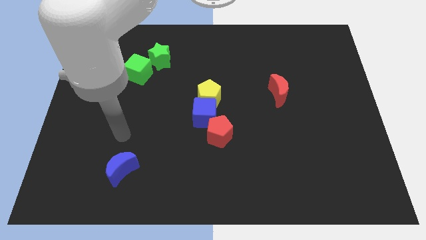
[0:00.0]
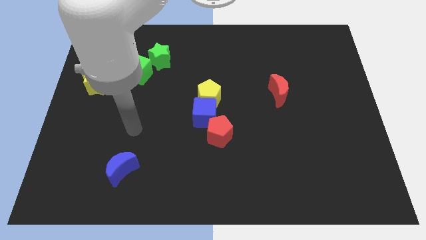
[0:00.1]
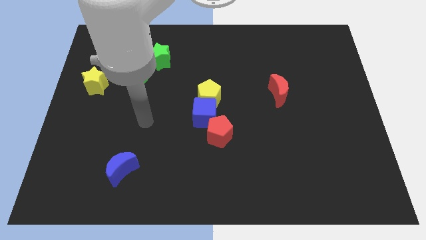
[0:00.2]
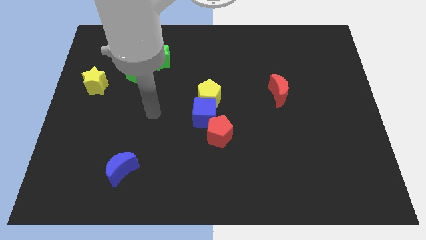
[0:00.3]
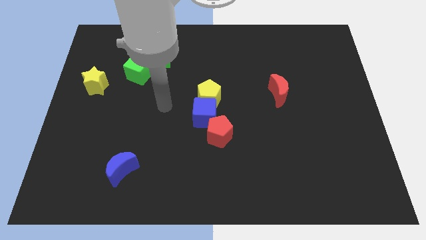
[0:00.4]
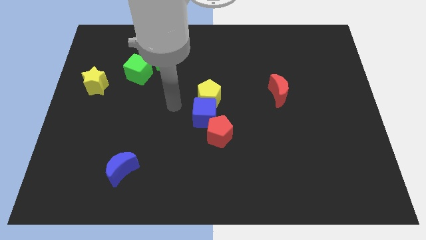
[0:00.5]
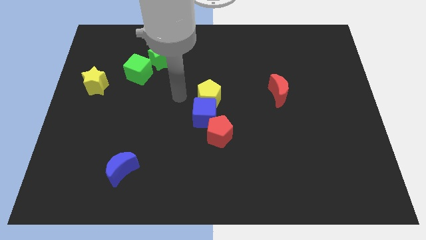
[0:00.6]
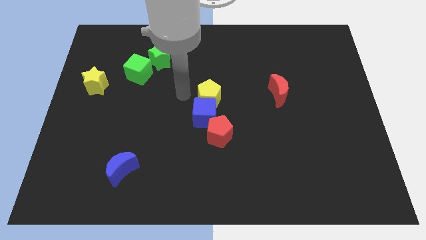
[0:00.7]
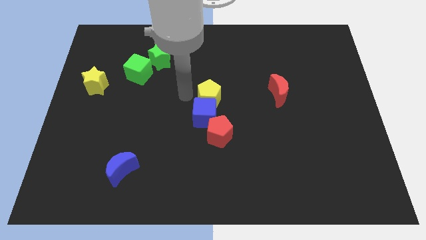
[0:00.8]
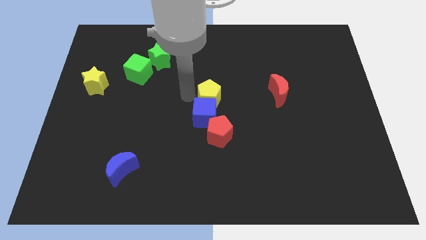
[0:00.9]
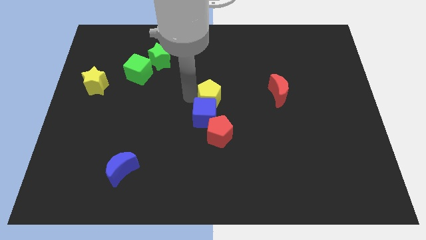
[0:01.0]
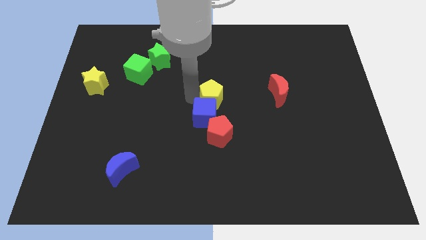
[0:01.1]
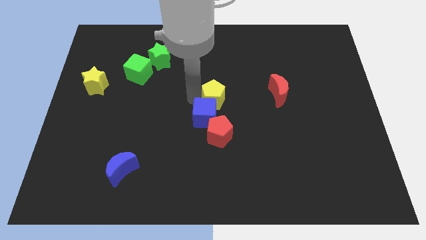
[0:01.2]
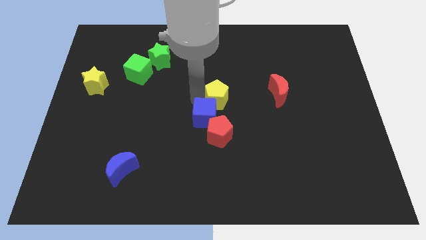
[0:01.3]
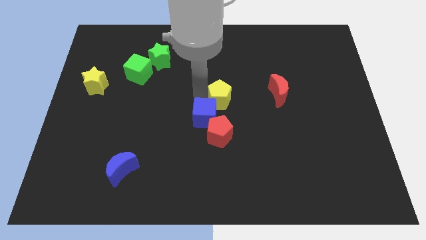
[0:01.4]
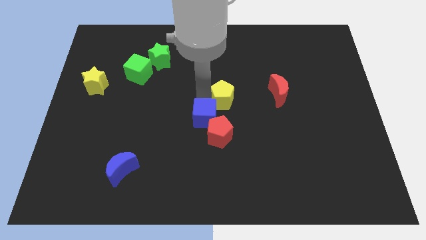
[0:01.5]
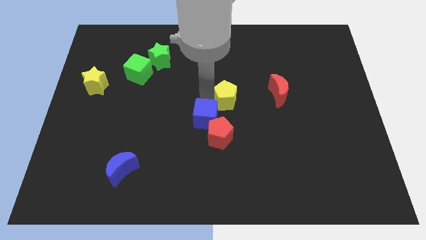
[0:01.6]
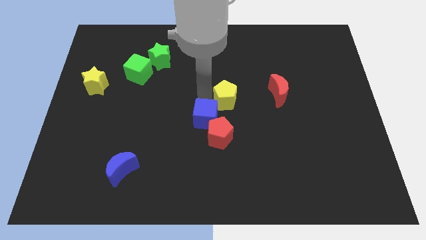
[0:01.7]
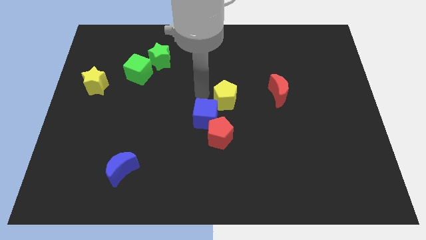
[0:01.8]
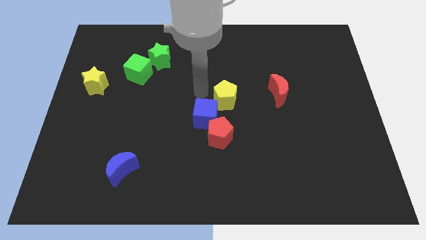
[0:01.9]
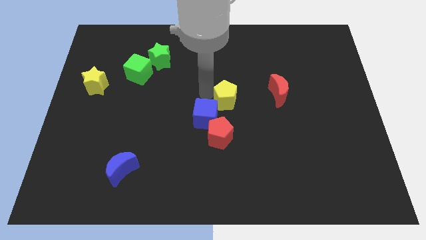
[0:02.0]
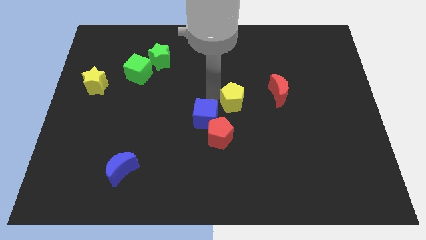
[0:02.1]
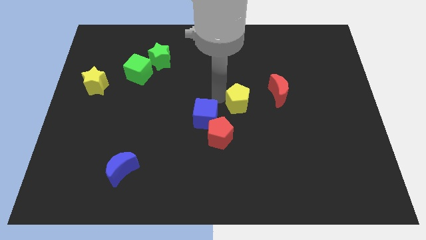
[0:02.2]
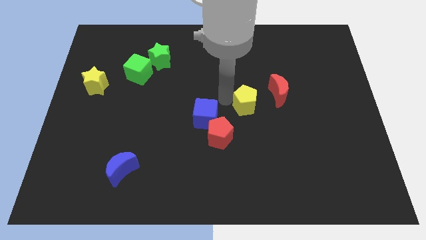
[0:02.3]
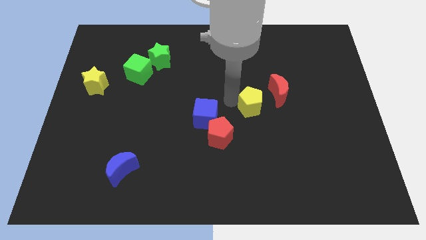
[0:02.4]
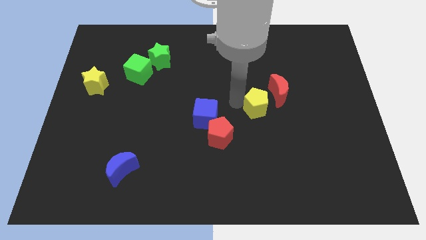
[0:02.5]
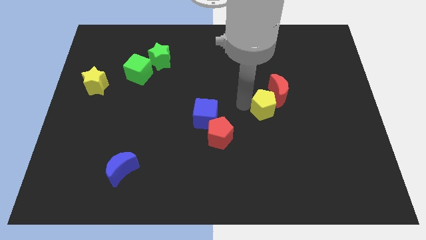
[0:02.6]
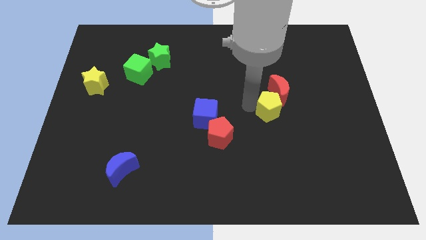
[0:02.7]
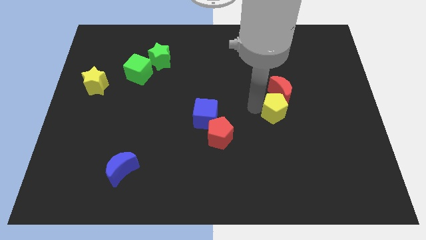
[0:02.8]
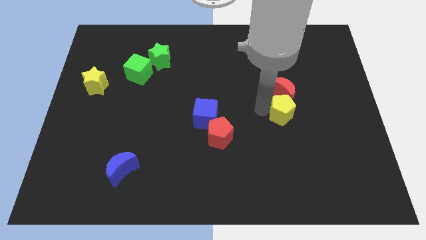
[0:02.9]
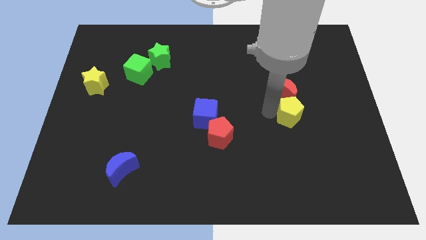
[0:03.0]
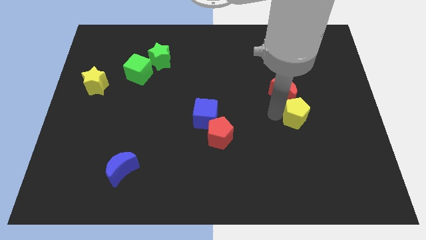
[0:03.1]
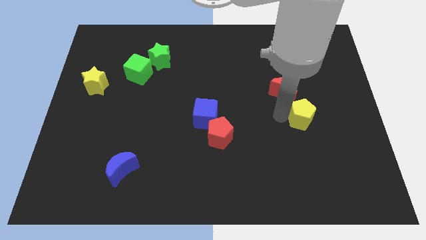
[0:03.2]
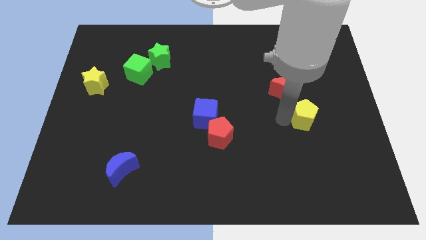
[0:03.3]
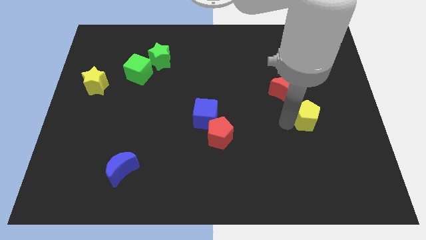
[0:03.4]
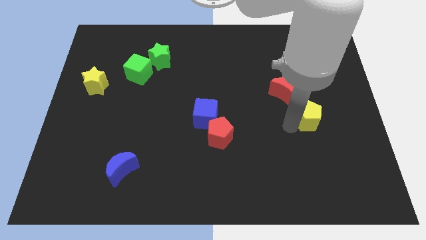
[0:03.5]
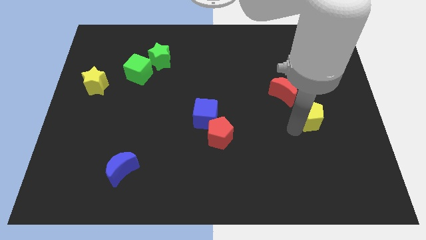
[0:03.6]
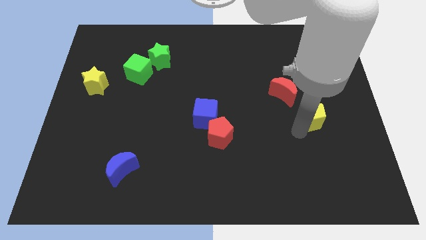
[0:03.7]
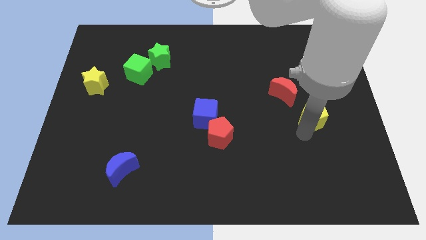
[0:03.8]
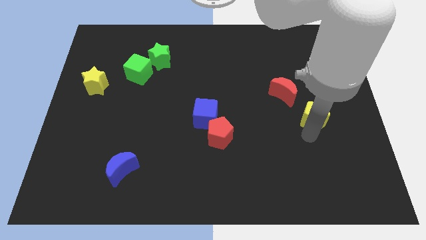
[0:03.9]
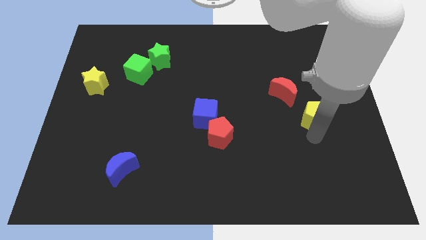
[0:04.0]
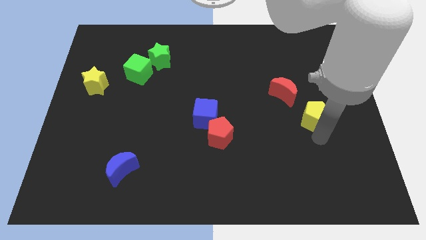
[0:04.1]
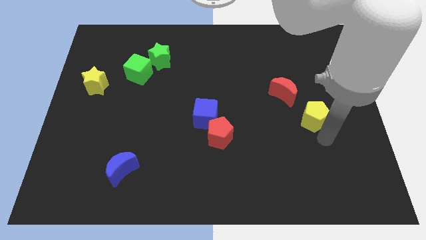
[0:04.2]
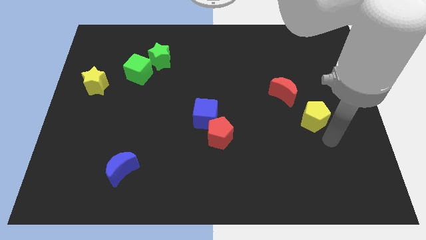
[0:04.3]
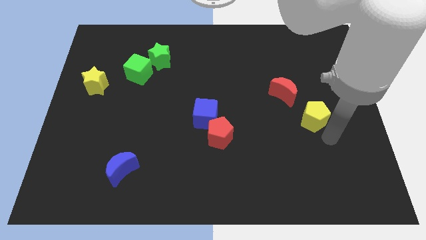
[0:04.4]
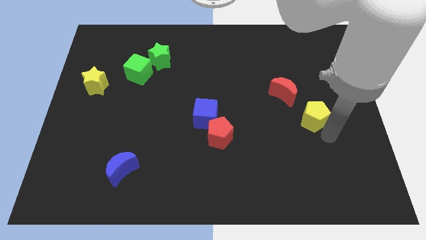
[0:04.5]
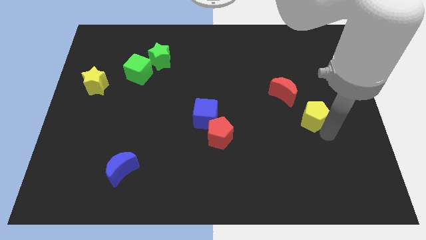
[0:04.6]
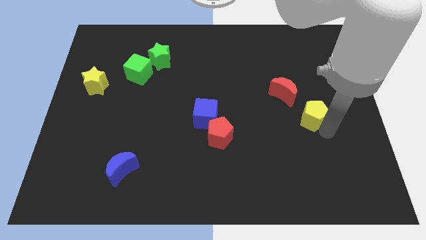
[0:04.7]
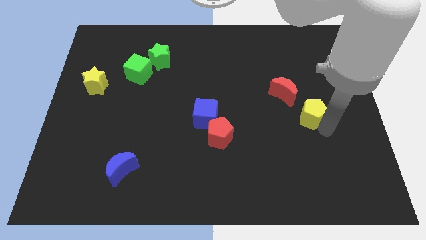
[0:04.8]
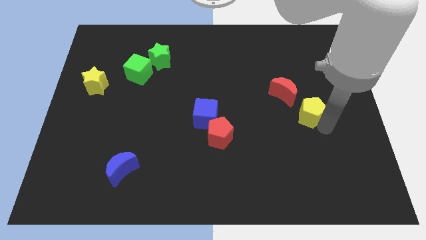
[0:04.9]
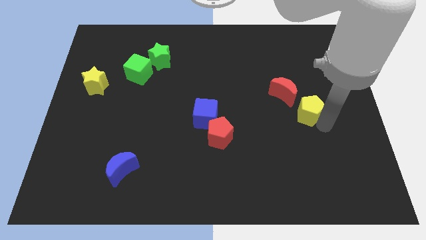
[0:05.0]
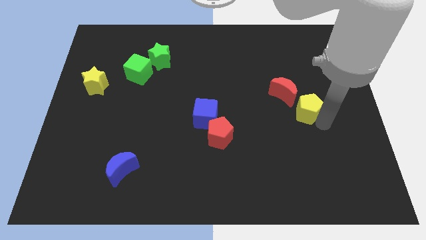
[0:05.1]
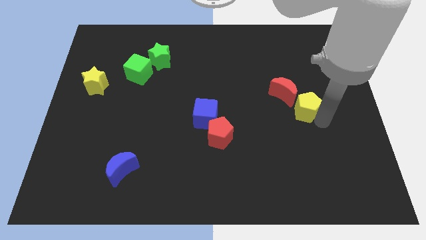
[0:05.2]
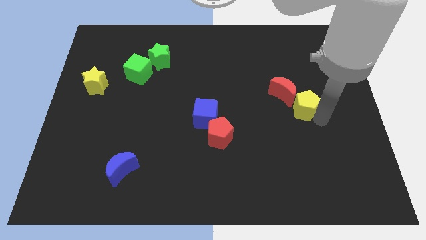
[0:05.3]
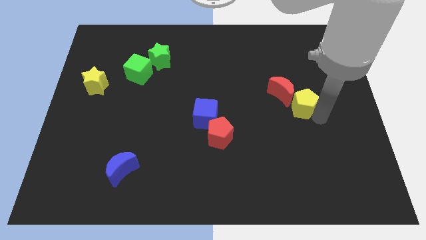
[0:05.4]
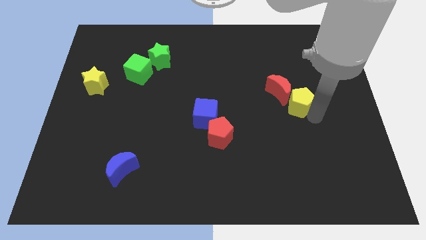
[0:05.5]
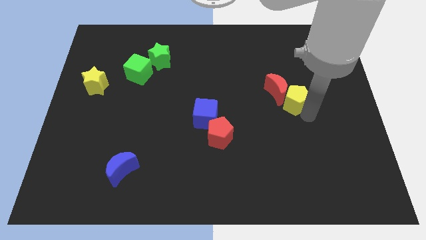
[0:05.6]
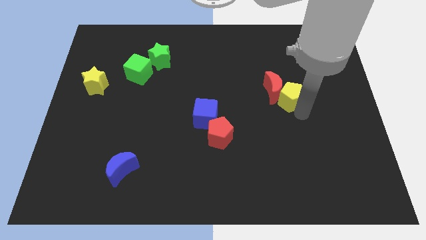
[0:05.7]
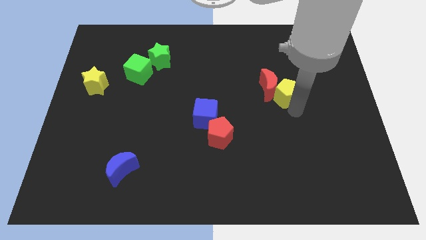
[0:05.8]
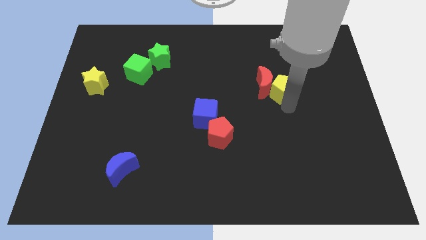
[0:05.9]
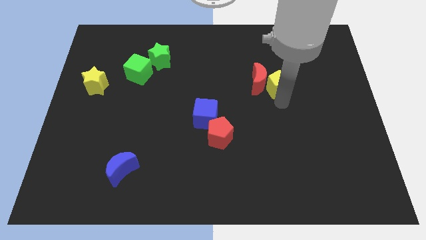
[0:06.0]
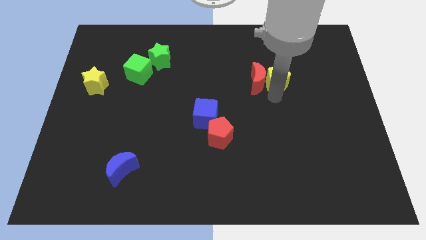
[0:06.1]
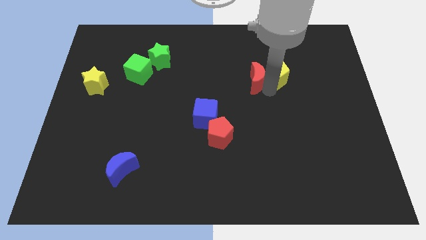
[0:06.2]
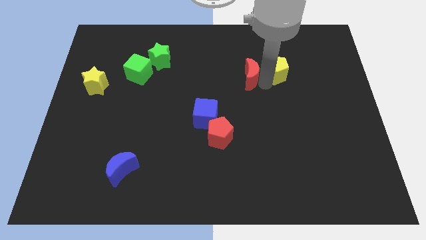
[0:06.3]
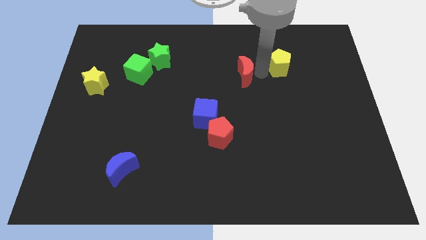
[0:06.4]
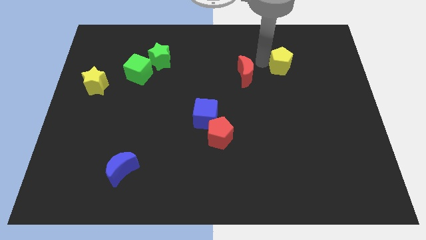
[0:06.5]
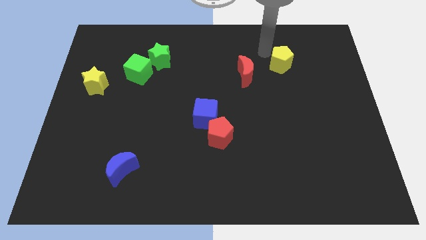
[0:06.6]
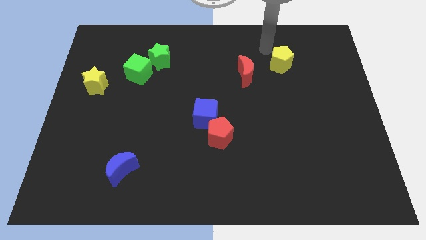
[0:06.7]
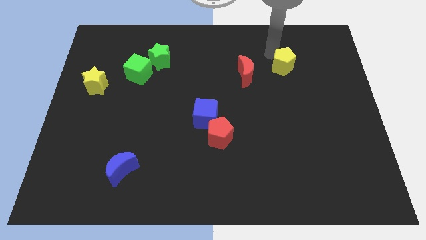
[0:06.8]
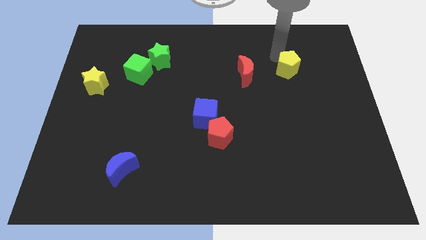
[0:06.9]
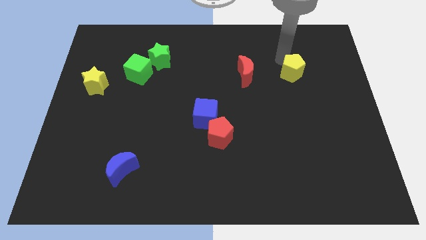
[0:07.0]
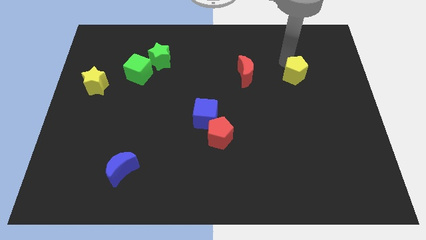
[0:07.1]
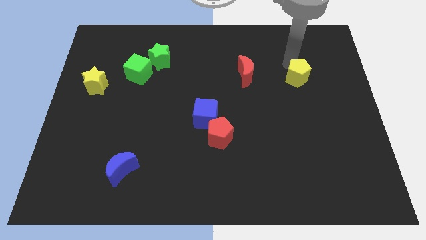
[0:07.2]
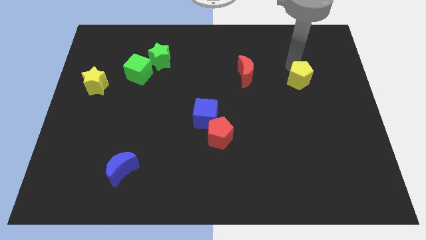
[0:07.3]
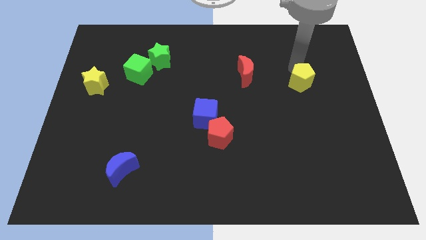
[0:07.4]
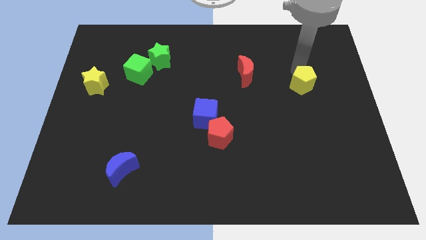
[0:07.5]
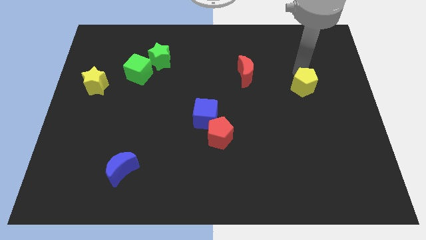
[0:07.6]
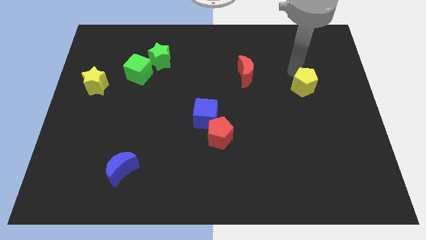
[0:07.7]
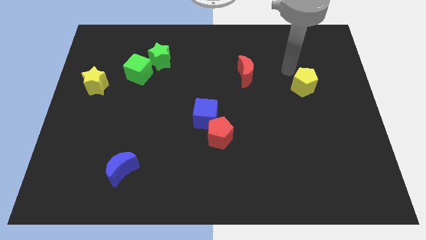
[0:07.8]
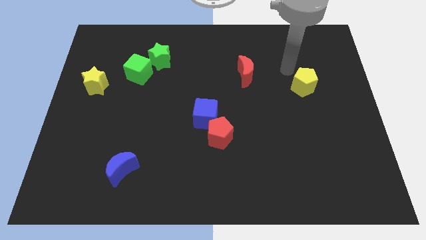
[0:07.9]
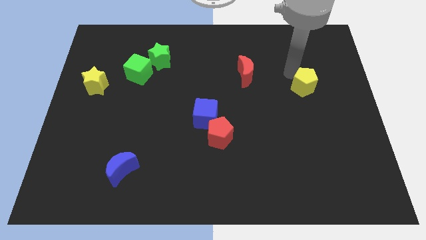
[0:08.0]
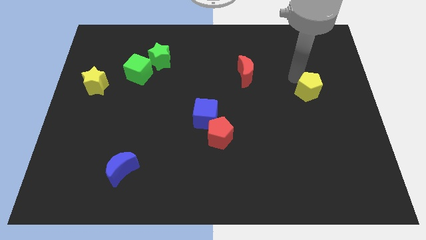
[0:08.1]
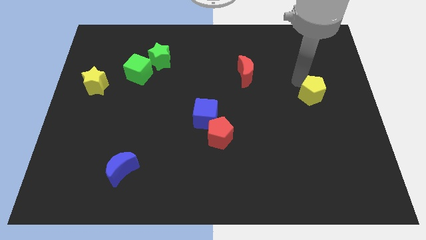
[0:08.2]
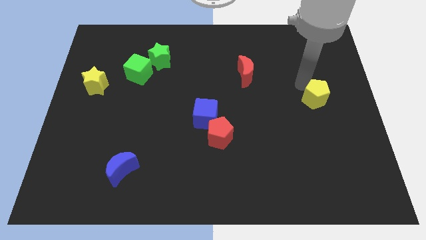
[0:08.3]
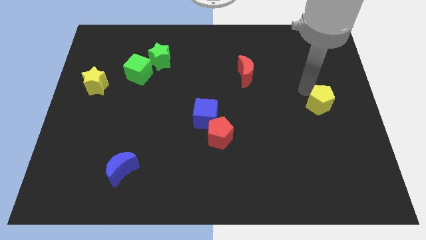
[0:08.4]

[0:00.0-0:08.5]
slide the yellow pentagon to the center right
